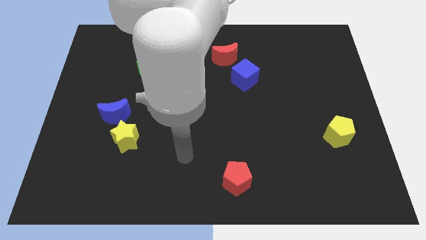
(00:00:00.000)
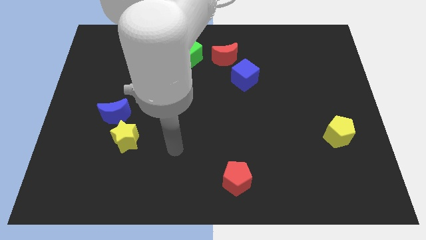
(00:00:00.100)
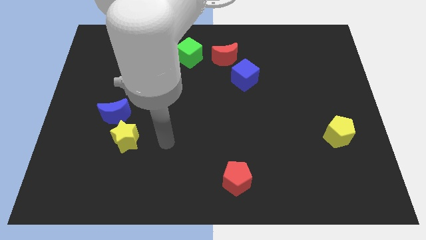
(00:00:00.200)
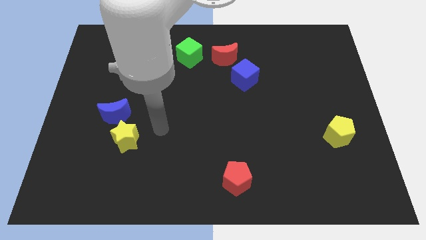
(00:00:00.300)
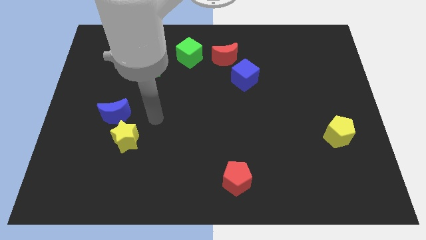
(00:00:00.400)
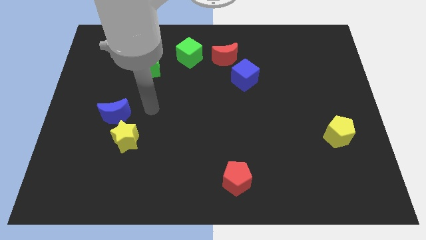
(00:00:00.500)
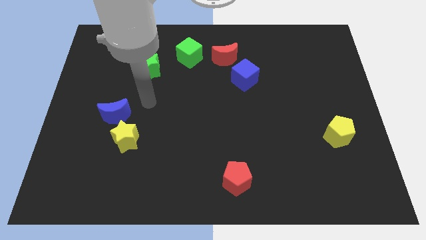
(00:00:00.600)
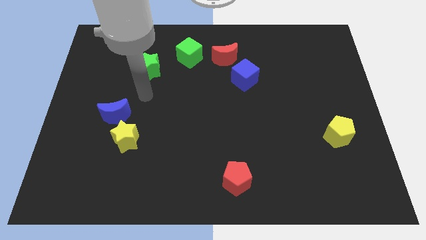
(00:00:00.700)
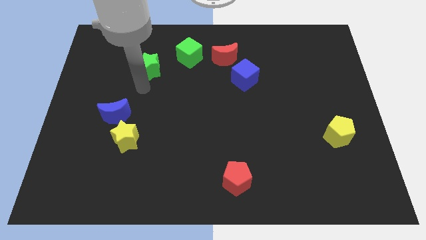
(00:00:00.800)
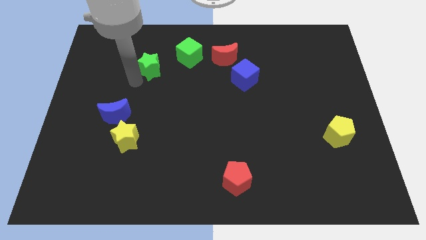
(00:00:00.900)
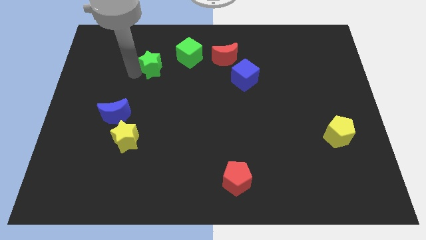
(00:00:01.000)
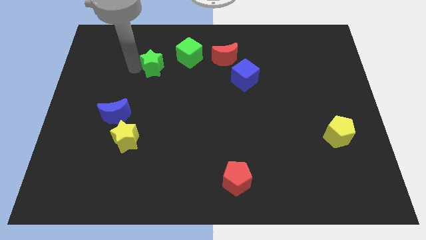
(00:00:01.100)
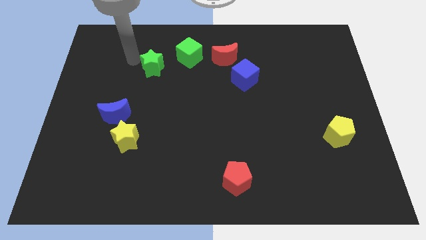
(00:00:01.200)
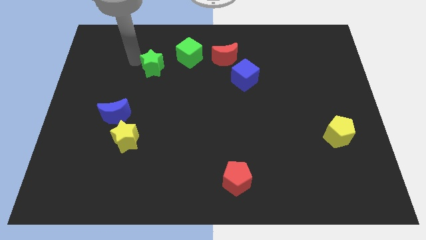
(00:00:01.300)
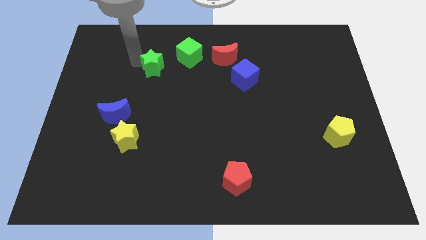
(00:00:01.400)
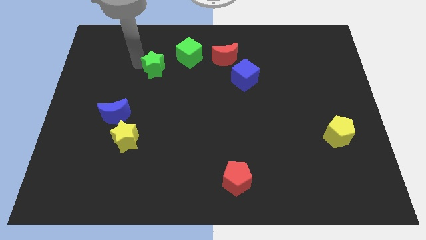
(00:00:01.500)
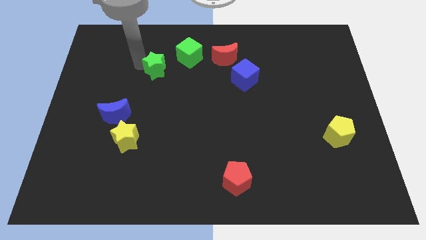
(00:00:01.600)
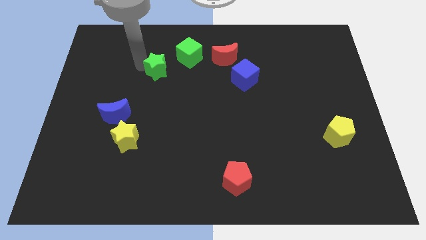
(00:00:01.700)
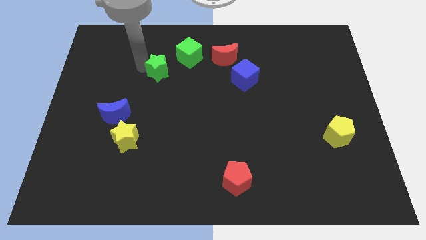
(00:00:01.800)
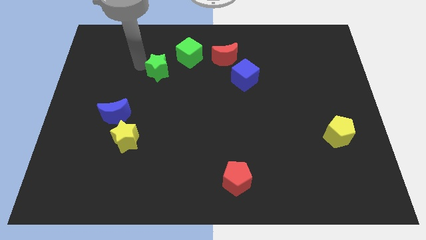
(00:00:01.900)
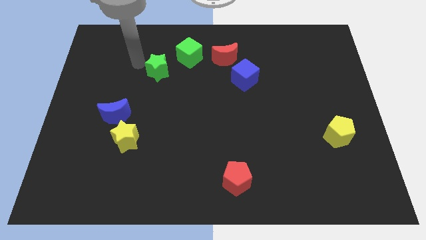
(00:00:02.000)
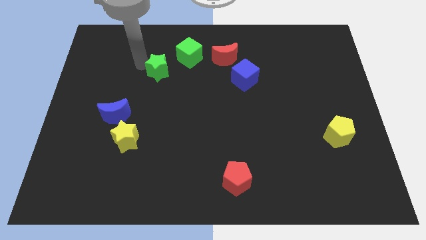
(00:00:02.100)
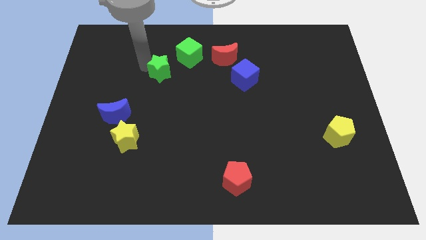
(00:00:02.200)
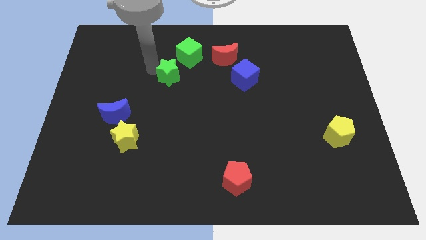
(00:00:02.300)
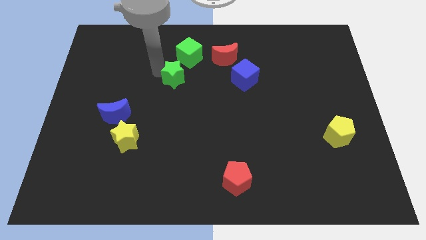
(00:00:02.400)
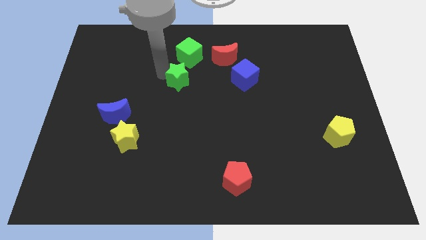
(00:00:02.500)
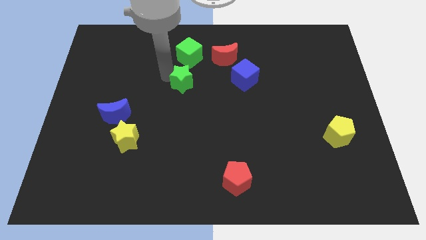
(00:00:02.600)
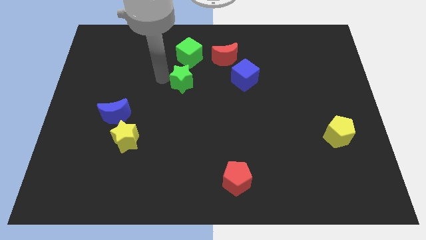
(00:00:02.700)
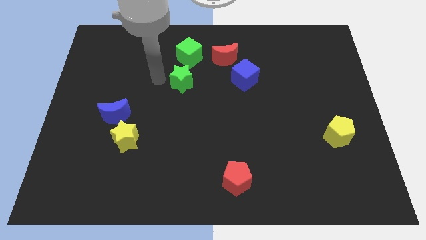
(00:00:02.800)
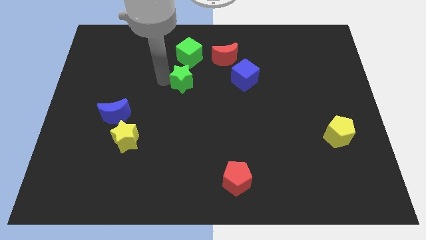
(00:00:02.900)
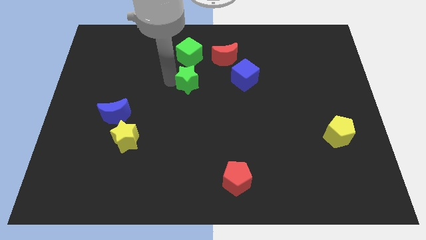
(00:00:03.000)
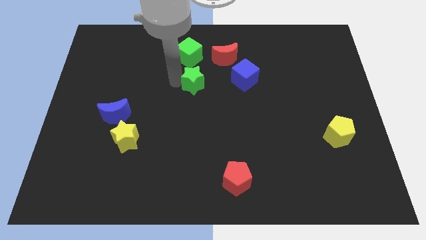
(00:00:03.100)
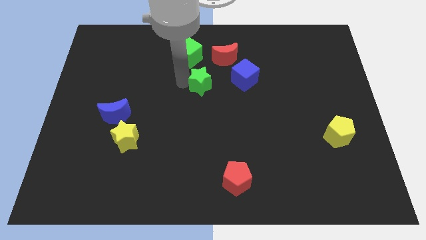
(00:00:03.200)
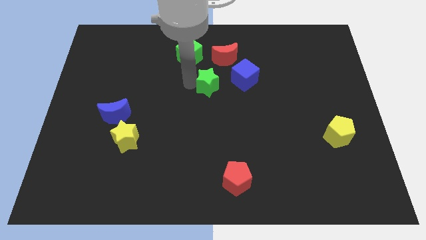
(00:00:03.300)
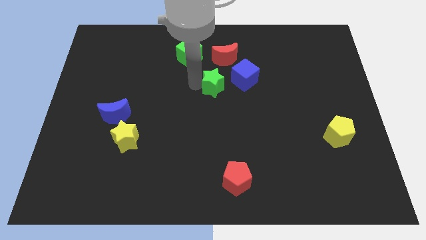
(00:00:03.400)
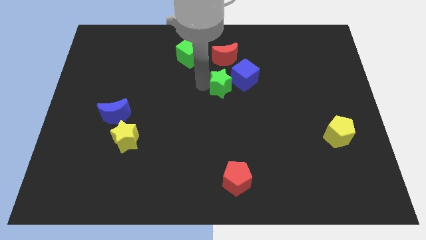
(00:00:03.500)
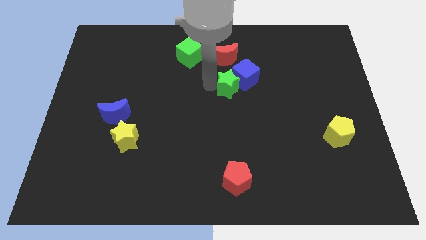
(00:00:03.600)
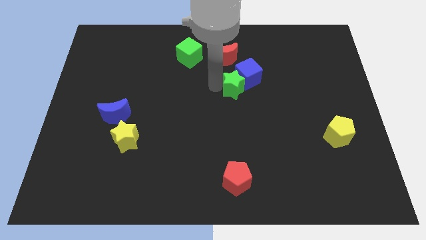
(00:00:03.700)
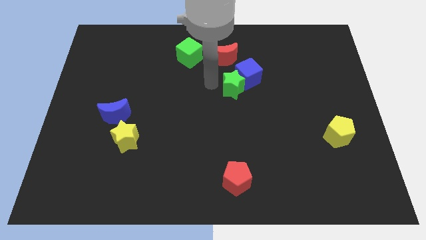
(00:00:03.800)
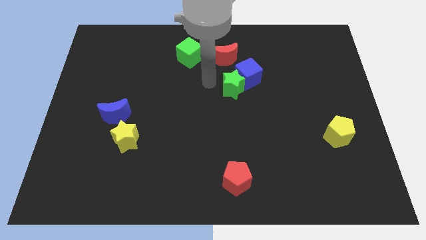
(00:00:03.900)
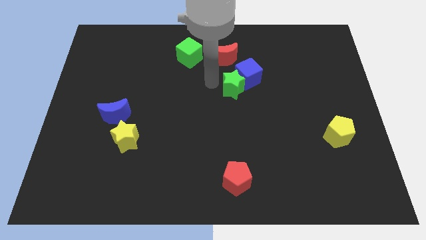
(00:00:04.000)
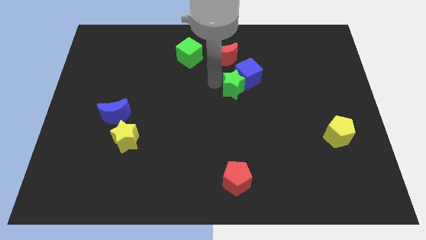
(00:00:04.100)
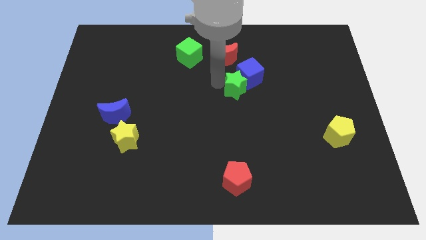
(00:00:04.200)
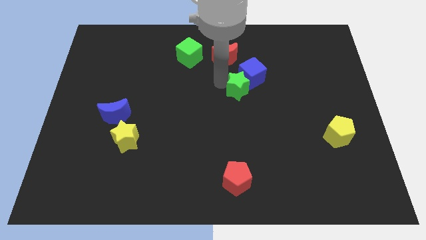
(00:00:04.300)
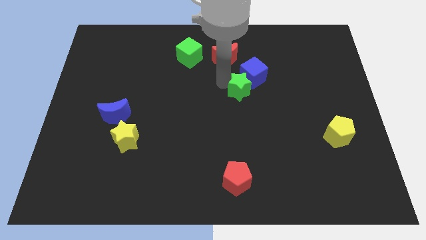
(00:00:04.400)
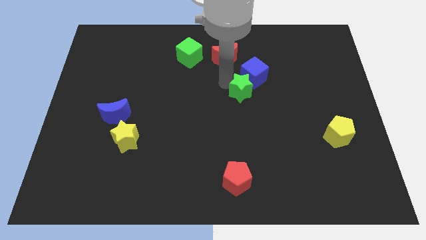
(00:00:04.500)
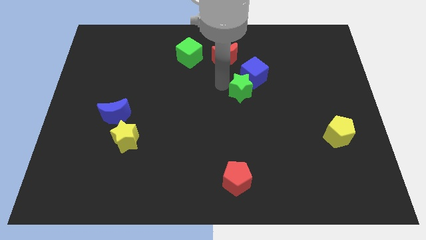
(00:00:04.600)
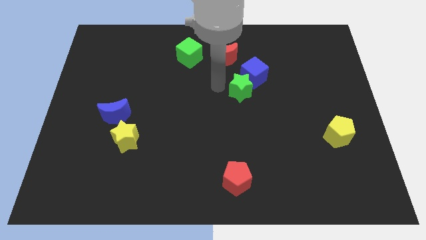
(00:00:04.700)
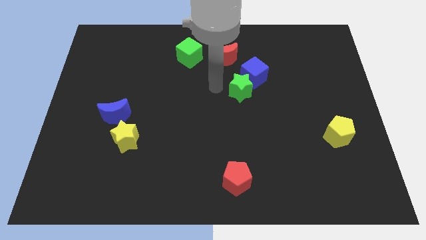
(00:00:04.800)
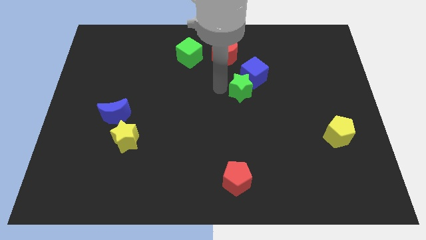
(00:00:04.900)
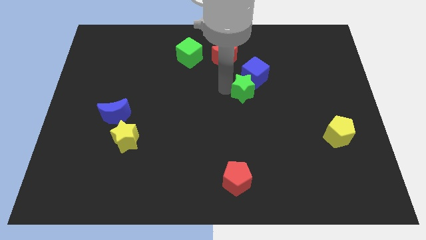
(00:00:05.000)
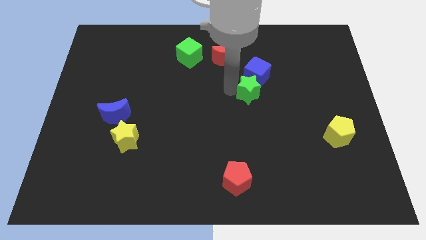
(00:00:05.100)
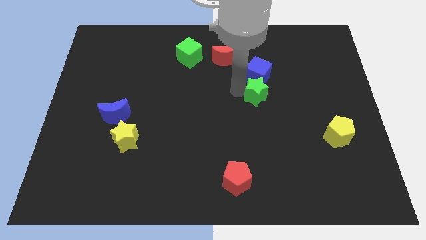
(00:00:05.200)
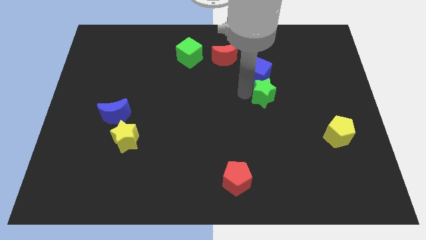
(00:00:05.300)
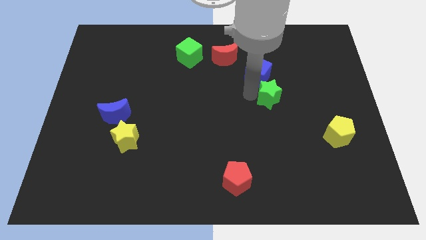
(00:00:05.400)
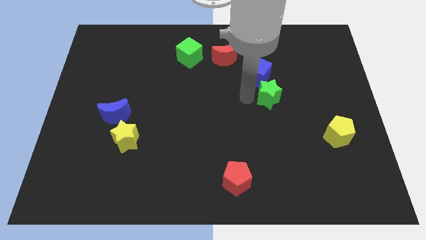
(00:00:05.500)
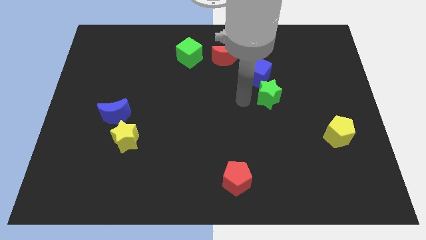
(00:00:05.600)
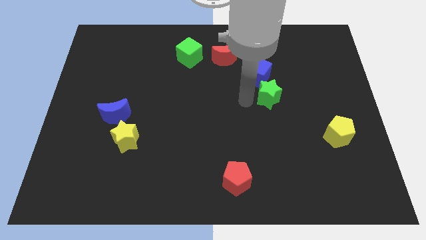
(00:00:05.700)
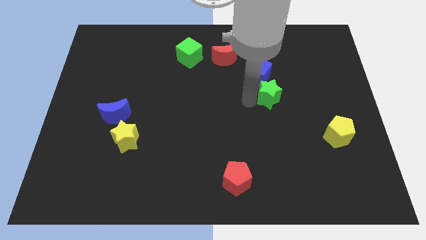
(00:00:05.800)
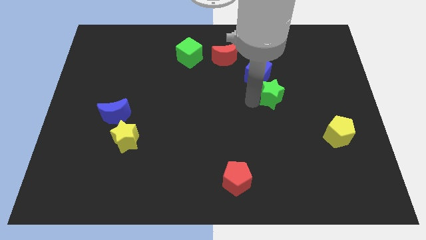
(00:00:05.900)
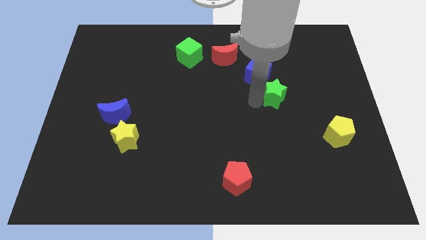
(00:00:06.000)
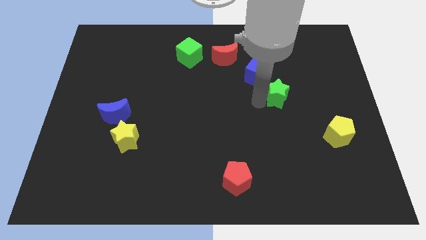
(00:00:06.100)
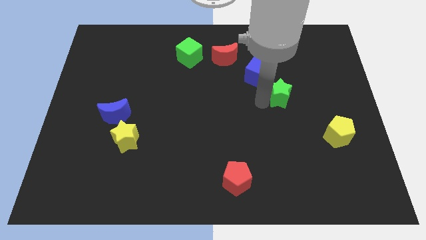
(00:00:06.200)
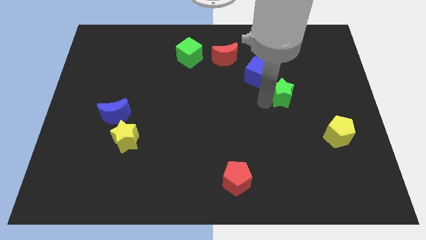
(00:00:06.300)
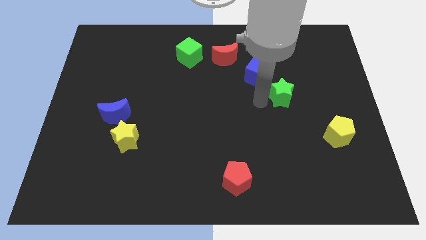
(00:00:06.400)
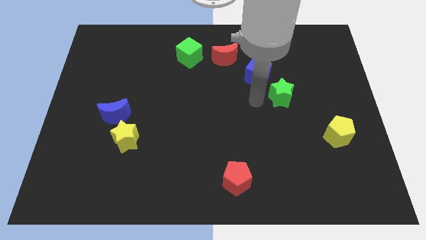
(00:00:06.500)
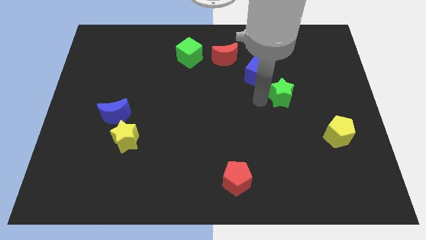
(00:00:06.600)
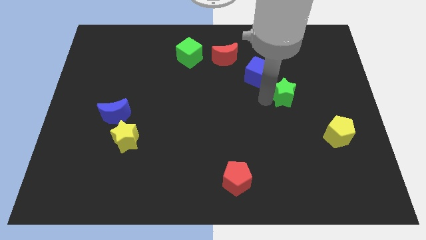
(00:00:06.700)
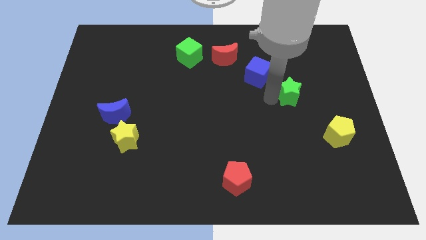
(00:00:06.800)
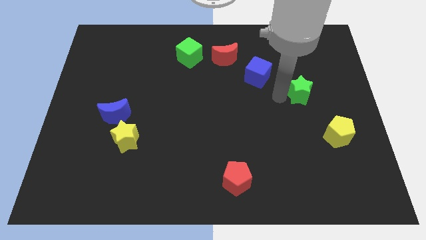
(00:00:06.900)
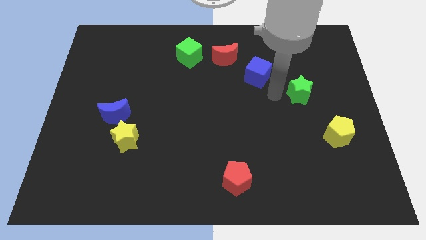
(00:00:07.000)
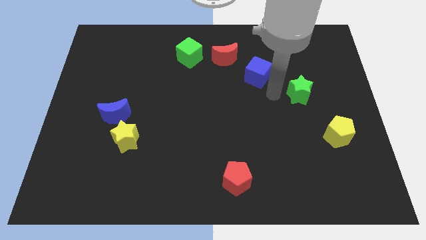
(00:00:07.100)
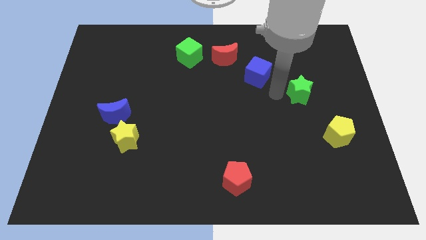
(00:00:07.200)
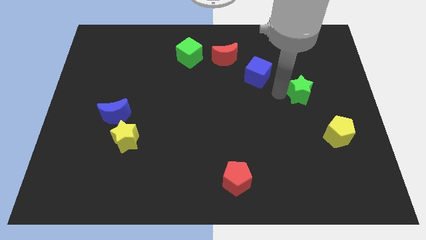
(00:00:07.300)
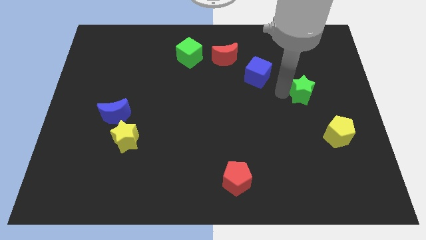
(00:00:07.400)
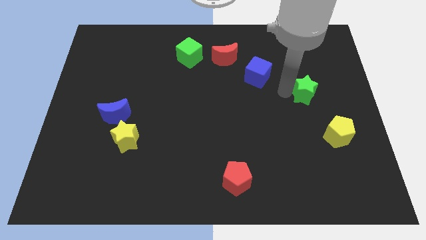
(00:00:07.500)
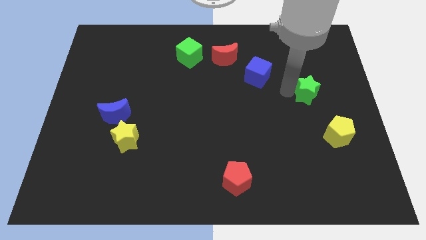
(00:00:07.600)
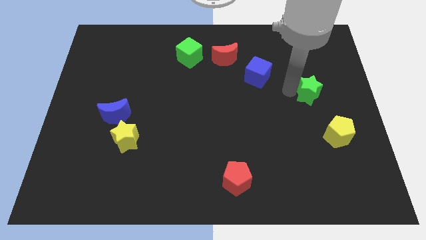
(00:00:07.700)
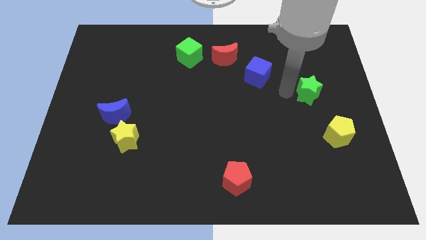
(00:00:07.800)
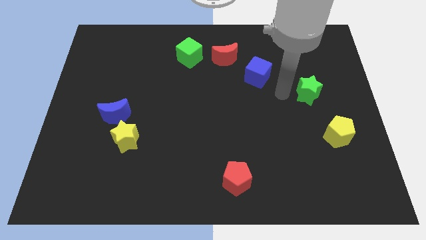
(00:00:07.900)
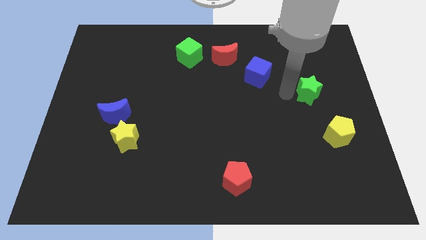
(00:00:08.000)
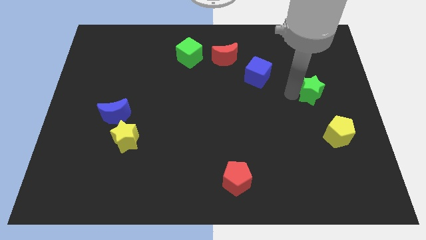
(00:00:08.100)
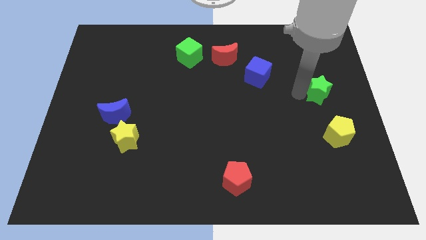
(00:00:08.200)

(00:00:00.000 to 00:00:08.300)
put the green star to the right side
